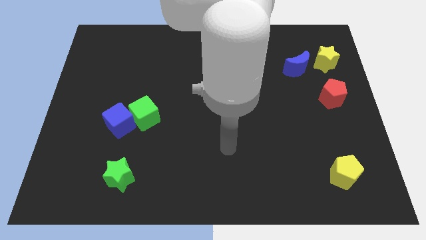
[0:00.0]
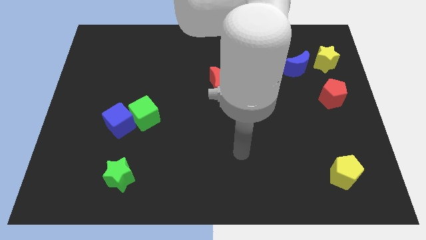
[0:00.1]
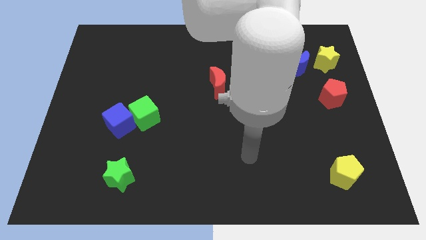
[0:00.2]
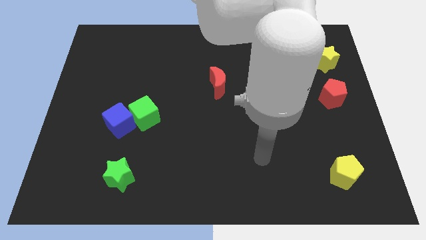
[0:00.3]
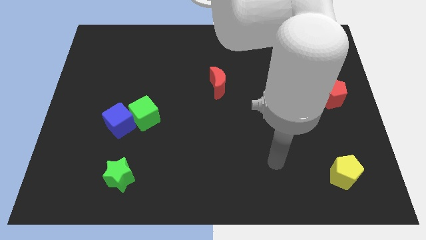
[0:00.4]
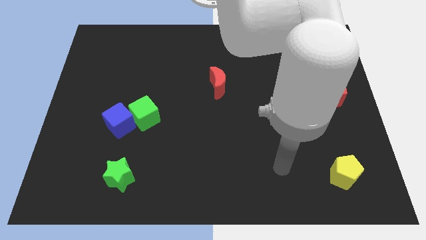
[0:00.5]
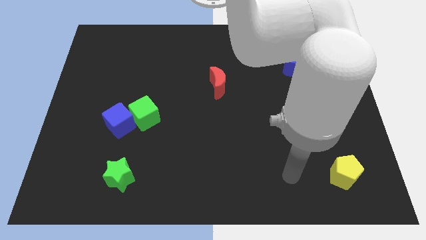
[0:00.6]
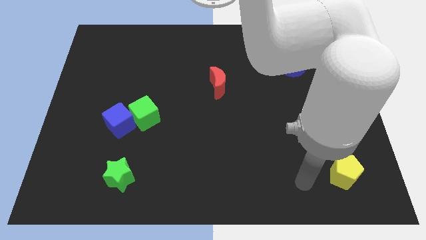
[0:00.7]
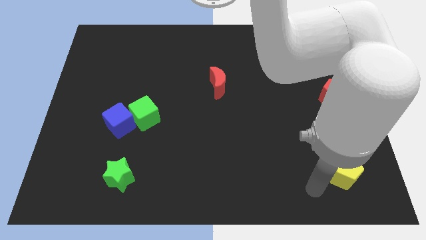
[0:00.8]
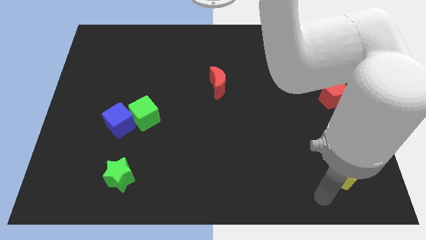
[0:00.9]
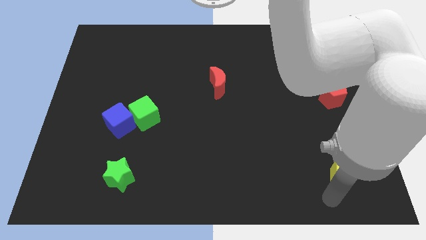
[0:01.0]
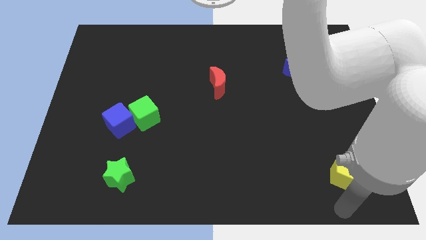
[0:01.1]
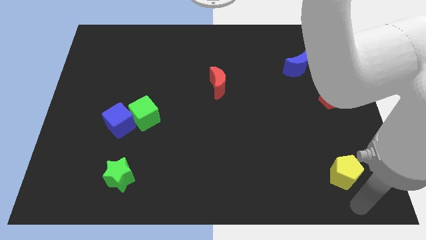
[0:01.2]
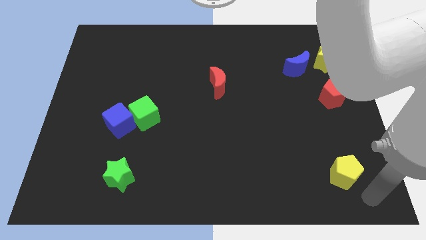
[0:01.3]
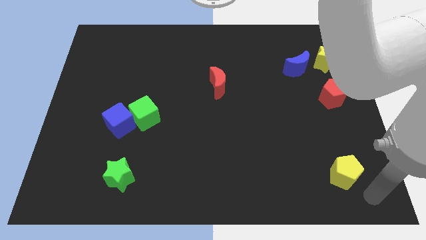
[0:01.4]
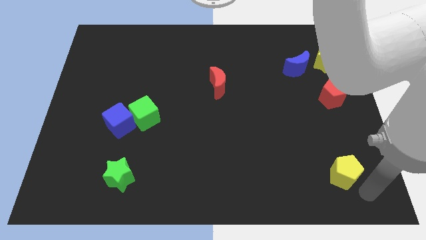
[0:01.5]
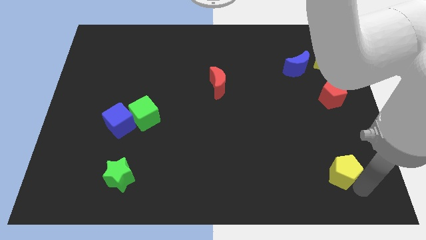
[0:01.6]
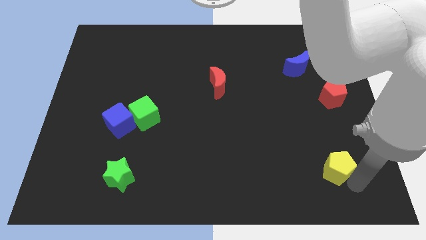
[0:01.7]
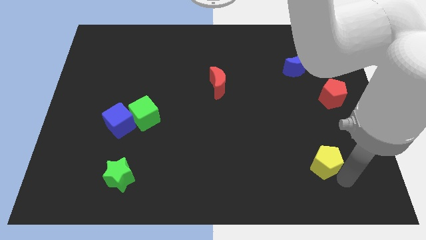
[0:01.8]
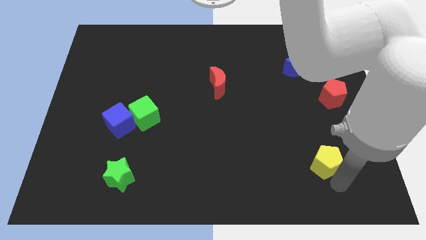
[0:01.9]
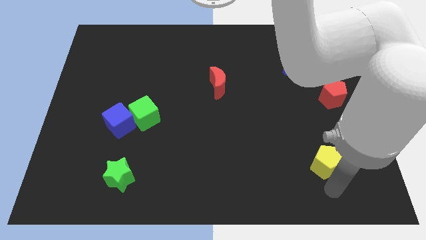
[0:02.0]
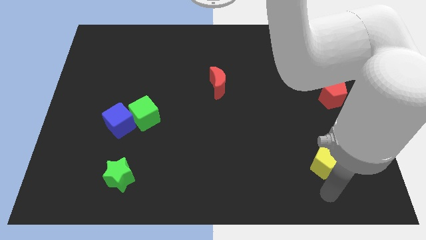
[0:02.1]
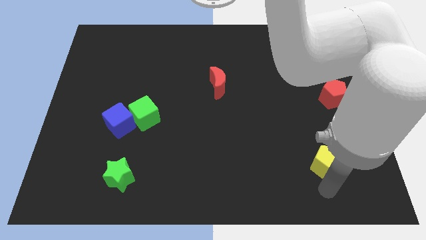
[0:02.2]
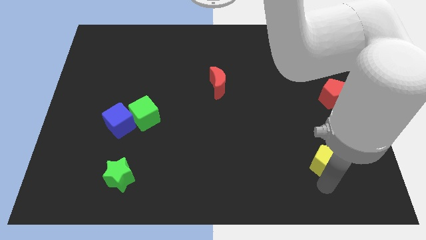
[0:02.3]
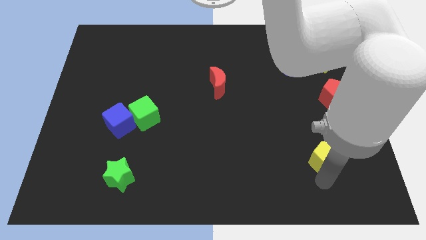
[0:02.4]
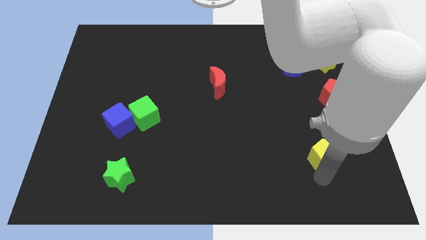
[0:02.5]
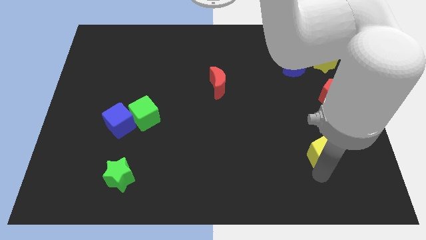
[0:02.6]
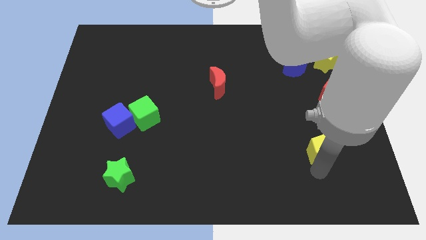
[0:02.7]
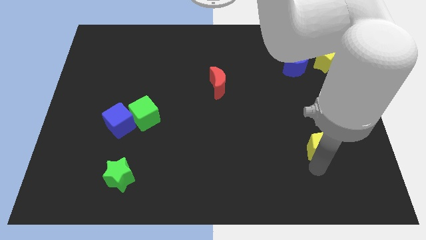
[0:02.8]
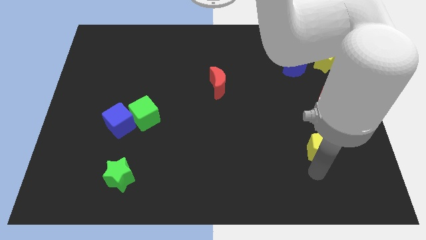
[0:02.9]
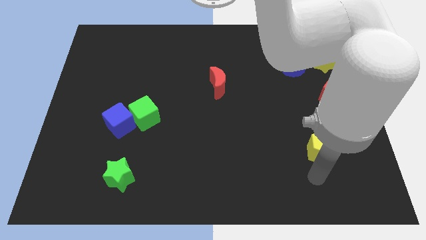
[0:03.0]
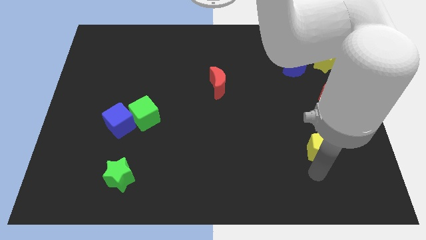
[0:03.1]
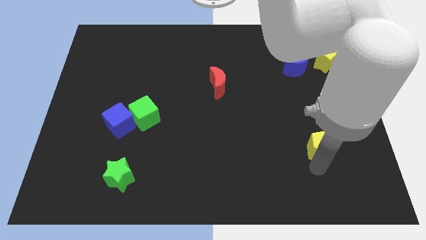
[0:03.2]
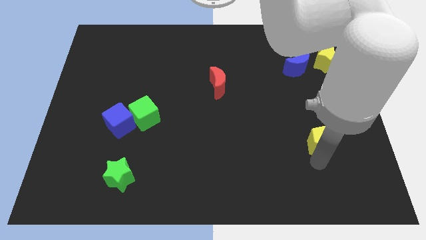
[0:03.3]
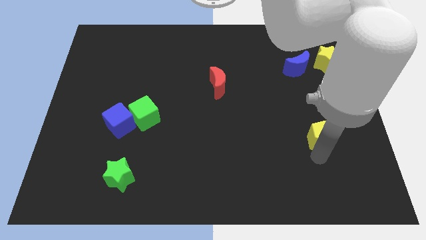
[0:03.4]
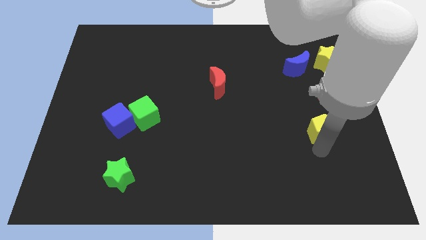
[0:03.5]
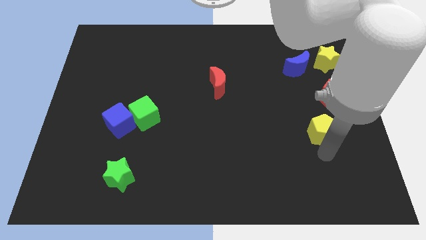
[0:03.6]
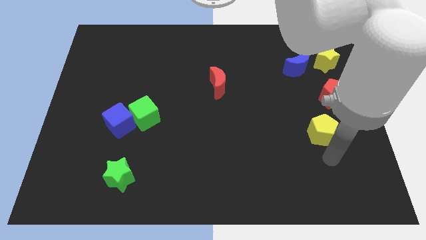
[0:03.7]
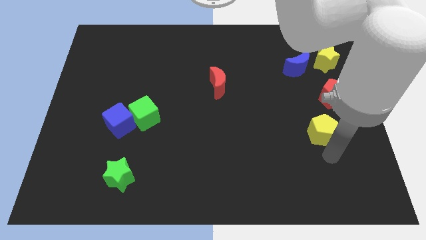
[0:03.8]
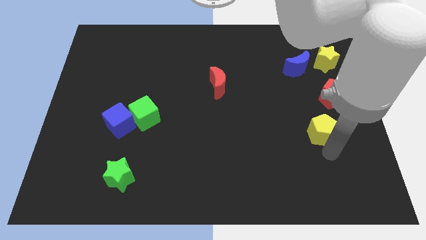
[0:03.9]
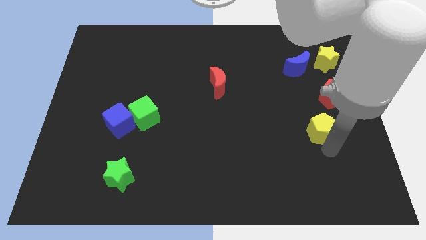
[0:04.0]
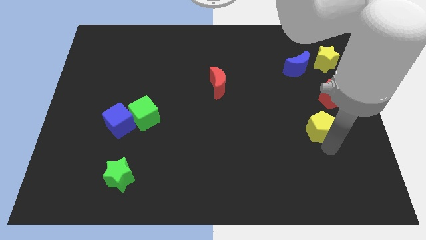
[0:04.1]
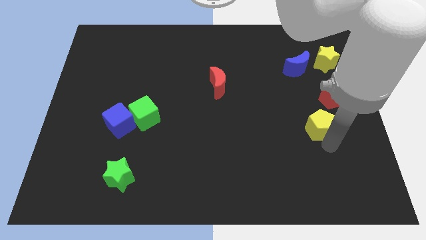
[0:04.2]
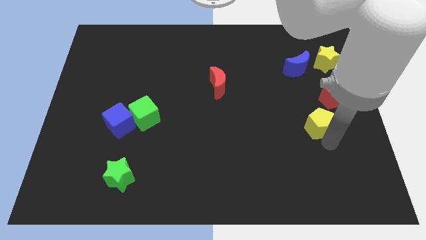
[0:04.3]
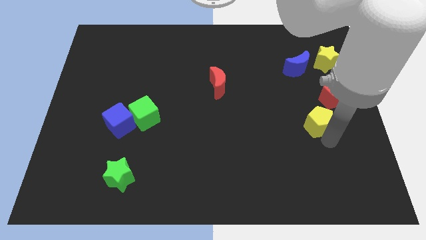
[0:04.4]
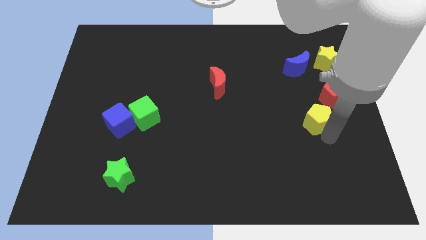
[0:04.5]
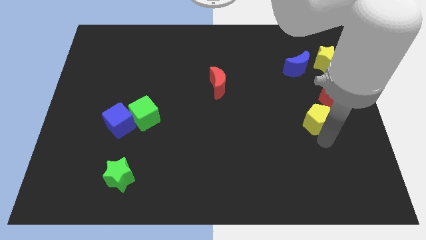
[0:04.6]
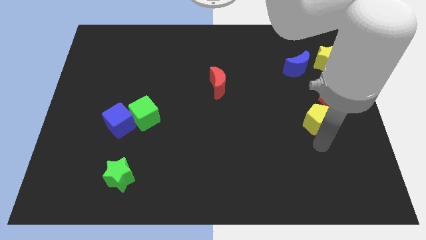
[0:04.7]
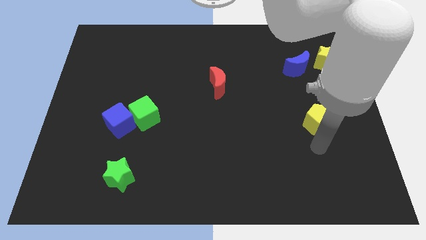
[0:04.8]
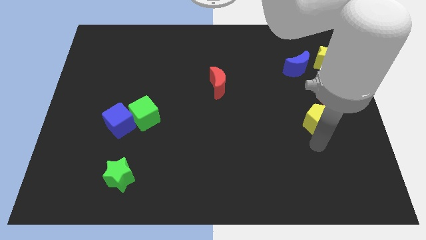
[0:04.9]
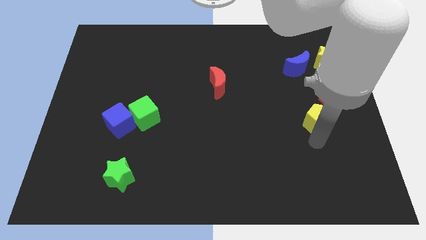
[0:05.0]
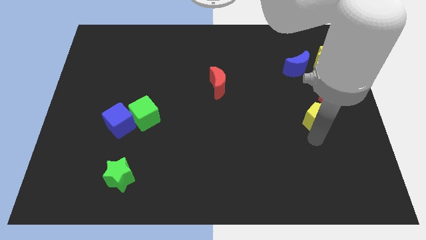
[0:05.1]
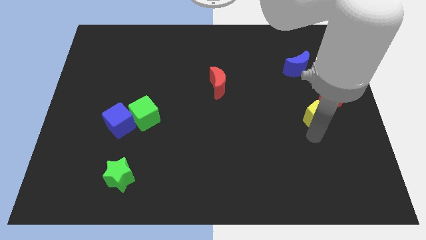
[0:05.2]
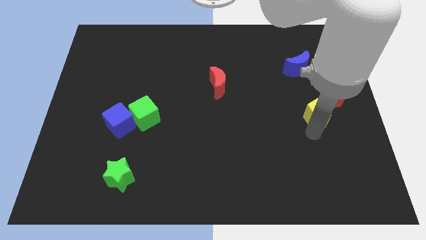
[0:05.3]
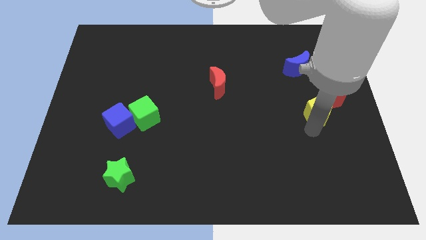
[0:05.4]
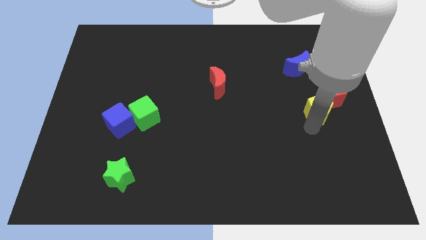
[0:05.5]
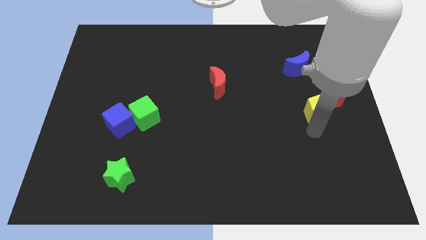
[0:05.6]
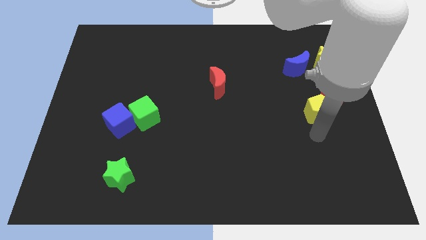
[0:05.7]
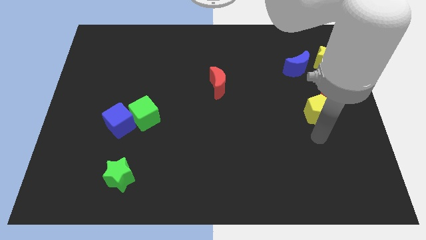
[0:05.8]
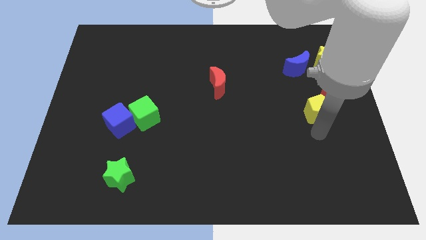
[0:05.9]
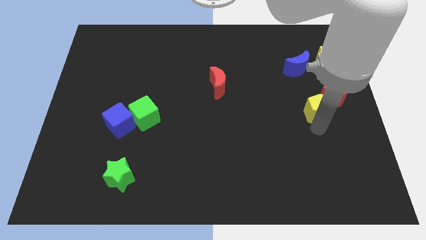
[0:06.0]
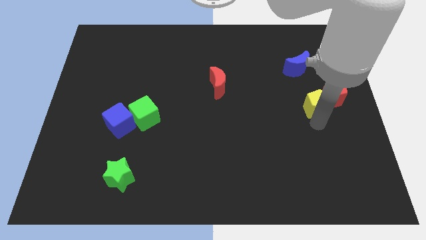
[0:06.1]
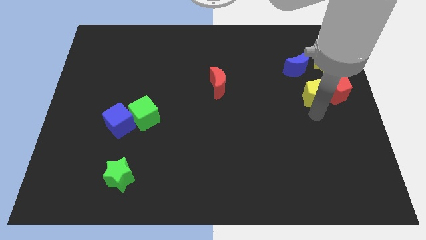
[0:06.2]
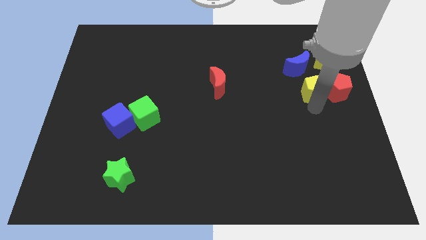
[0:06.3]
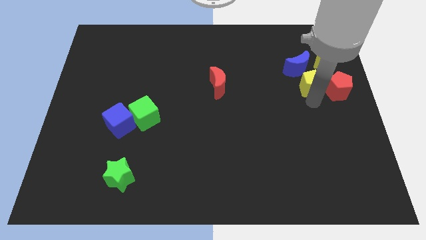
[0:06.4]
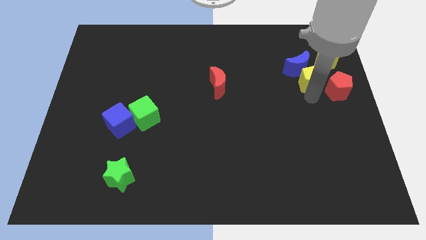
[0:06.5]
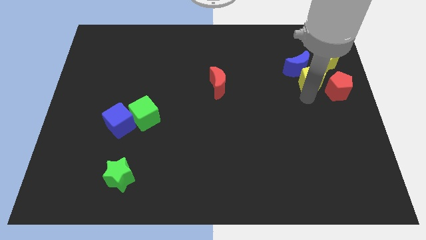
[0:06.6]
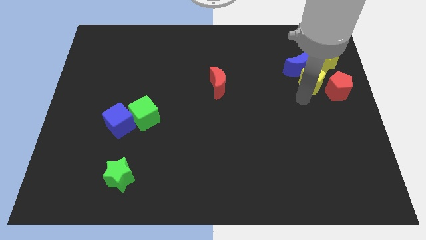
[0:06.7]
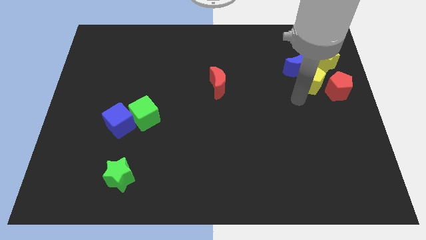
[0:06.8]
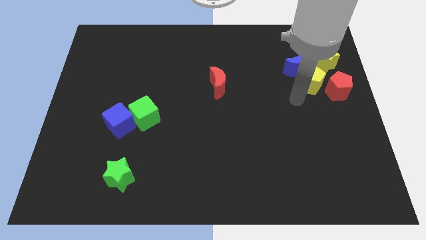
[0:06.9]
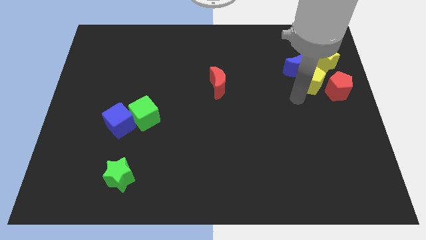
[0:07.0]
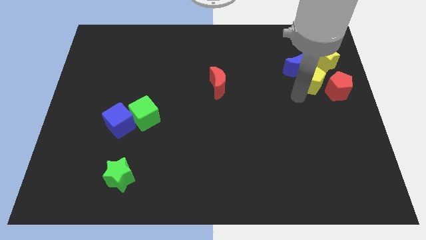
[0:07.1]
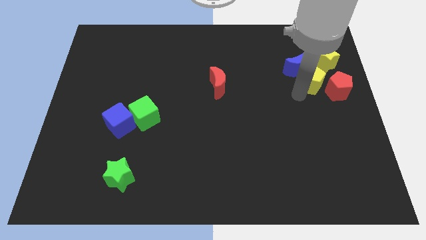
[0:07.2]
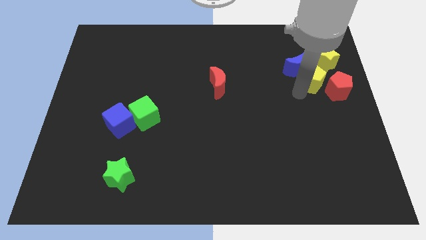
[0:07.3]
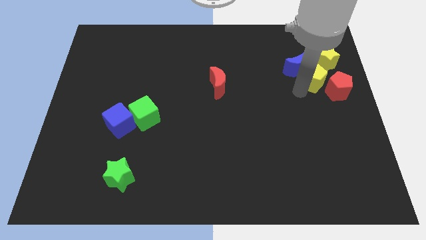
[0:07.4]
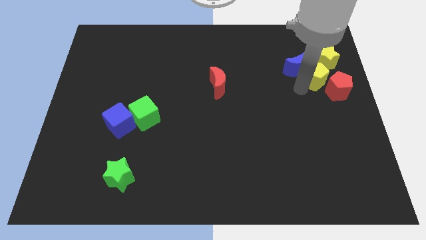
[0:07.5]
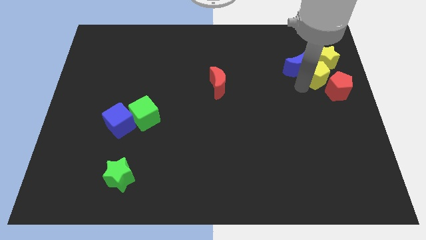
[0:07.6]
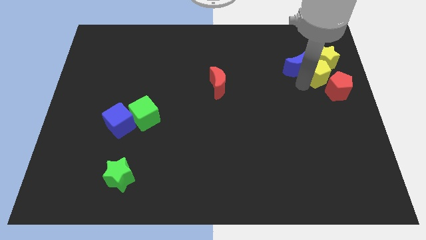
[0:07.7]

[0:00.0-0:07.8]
push the yellow pentagon to the yellow star
